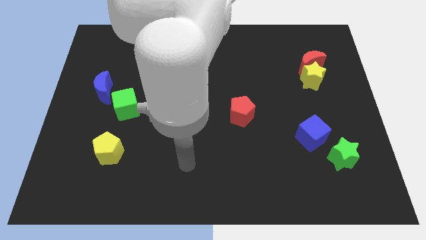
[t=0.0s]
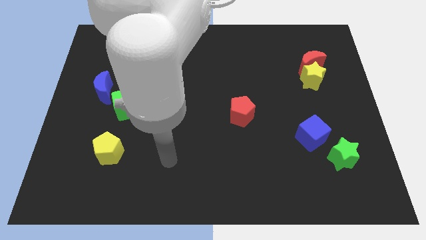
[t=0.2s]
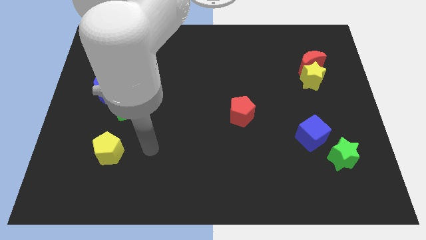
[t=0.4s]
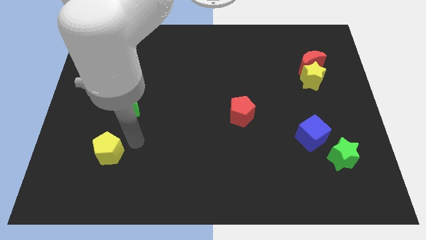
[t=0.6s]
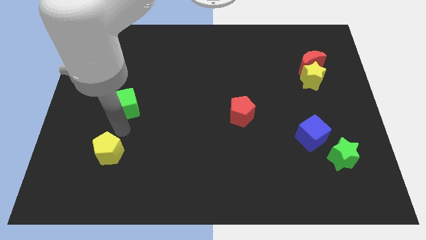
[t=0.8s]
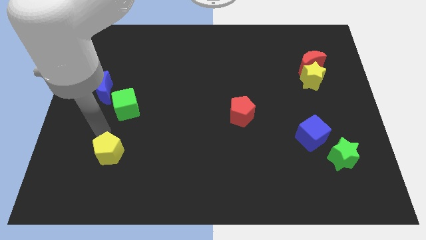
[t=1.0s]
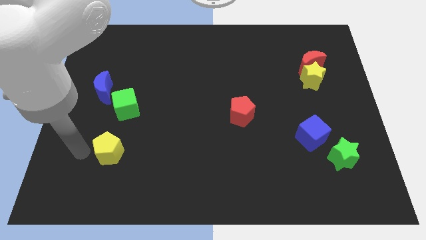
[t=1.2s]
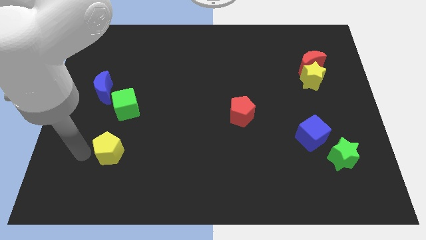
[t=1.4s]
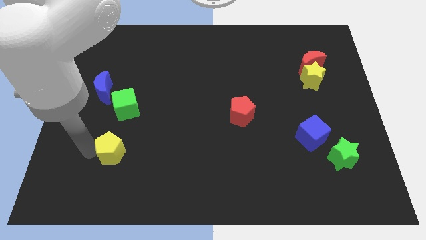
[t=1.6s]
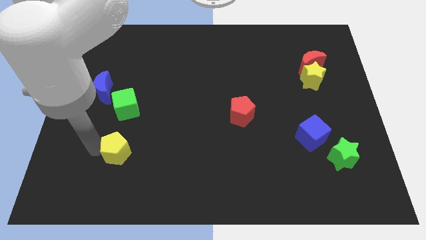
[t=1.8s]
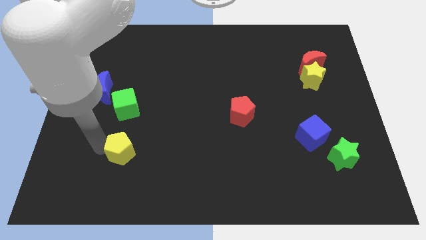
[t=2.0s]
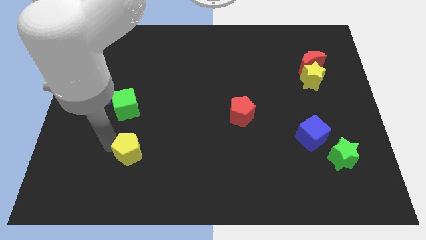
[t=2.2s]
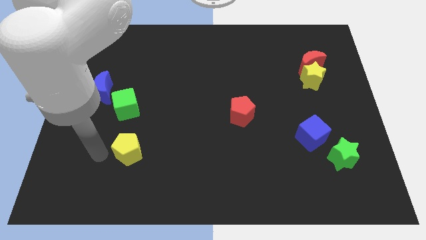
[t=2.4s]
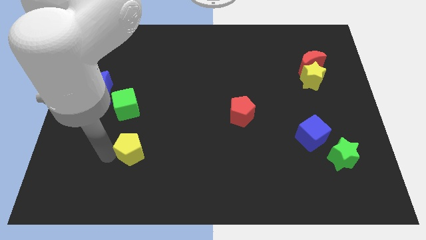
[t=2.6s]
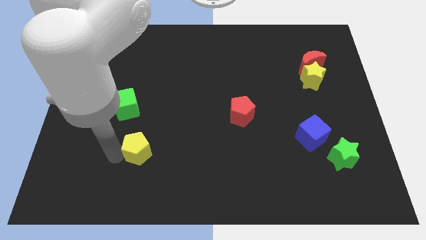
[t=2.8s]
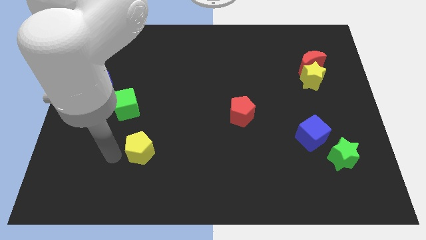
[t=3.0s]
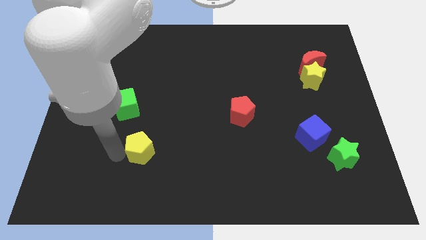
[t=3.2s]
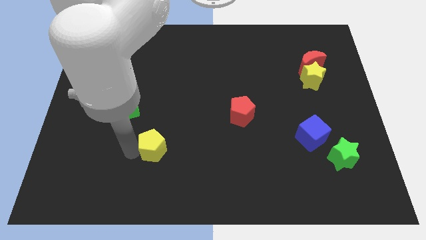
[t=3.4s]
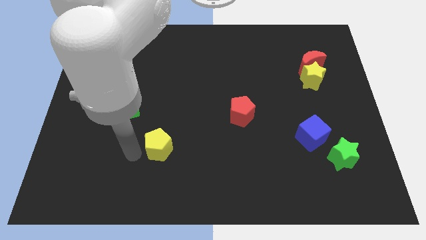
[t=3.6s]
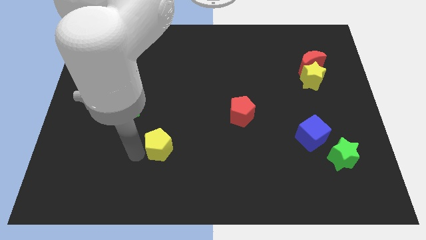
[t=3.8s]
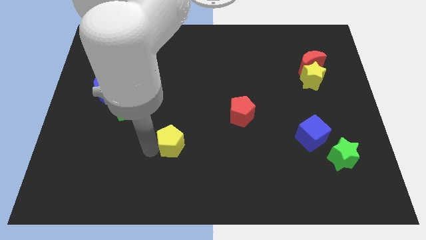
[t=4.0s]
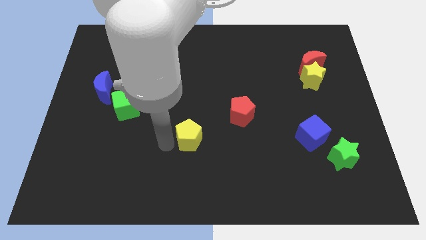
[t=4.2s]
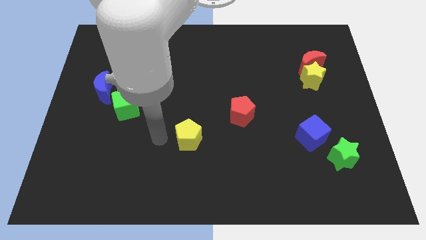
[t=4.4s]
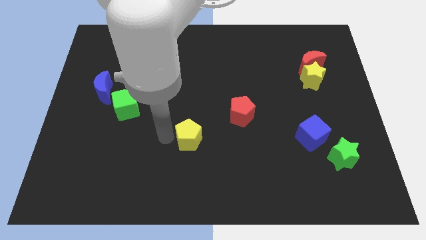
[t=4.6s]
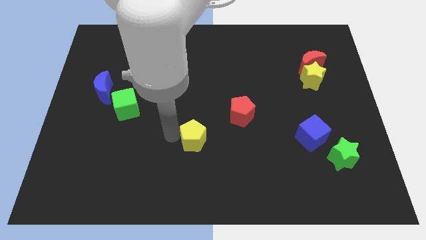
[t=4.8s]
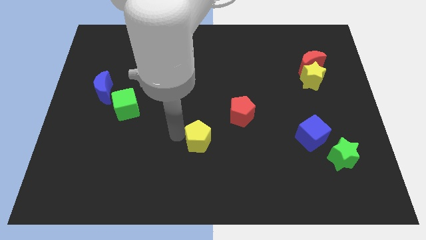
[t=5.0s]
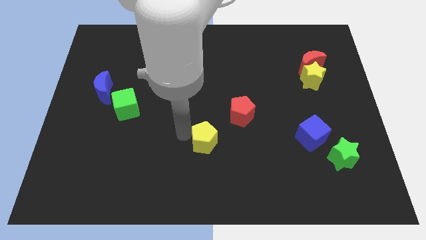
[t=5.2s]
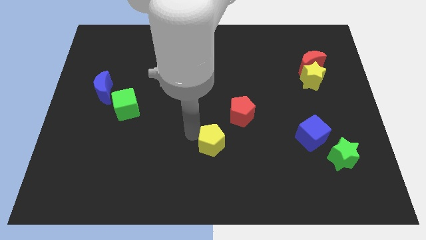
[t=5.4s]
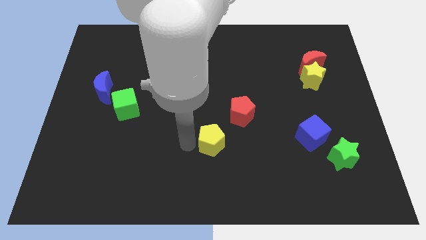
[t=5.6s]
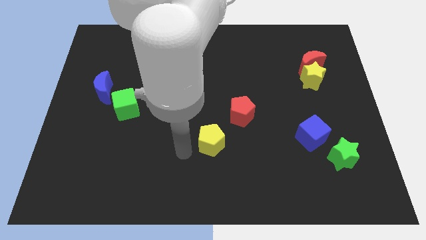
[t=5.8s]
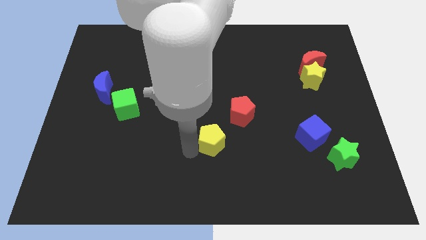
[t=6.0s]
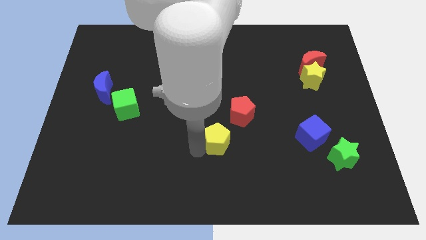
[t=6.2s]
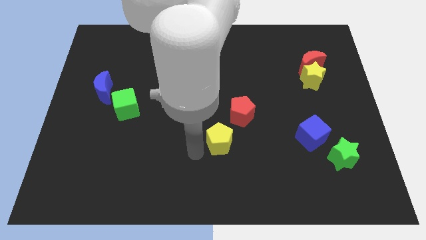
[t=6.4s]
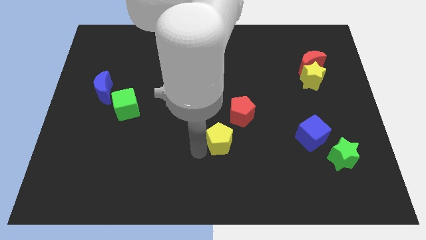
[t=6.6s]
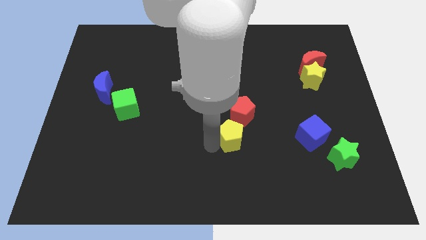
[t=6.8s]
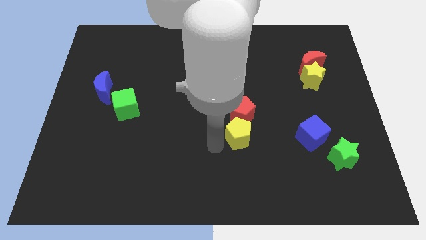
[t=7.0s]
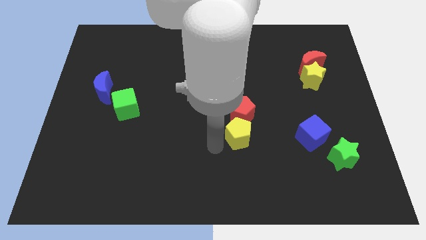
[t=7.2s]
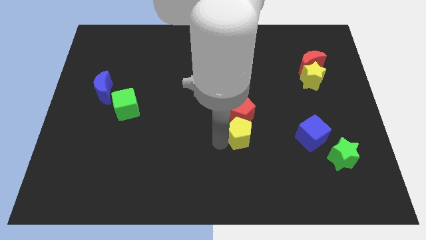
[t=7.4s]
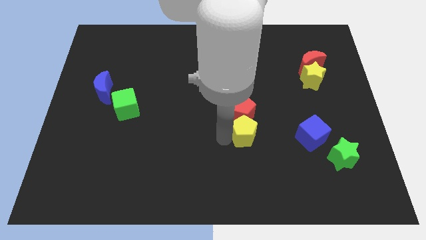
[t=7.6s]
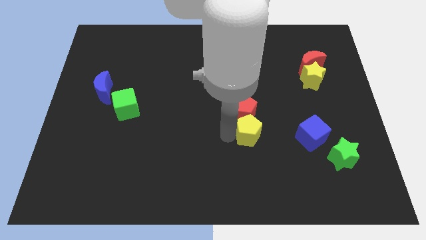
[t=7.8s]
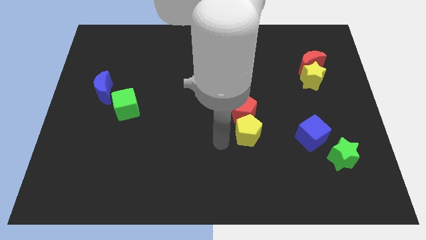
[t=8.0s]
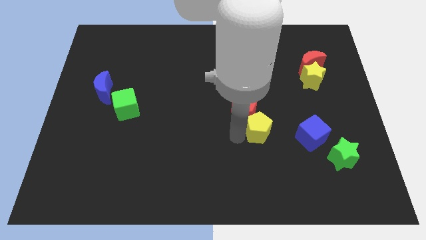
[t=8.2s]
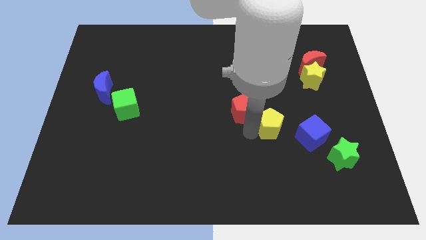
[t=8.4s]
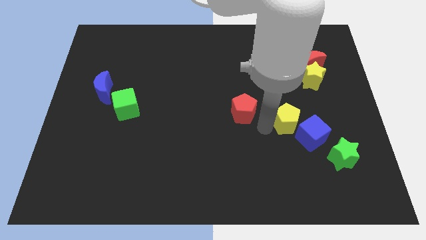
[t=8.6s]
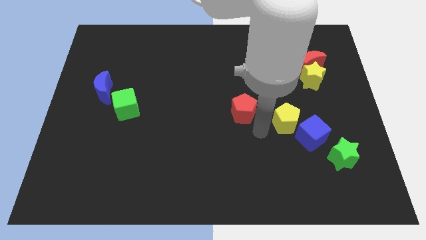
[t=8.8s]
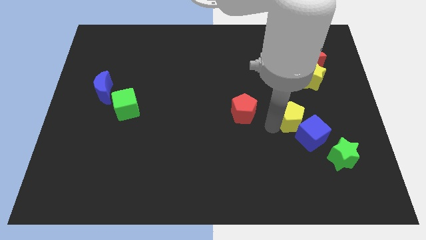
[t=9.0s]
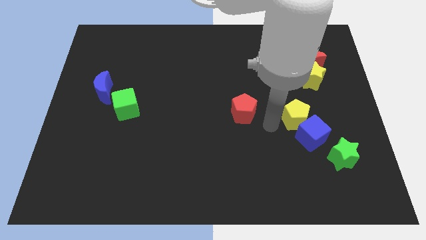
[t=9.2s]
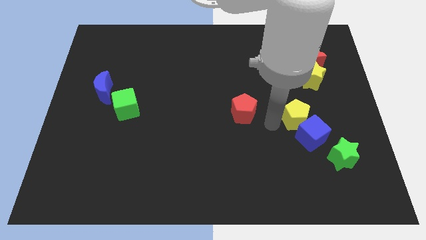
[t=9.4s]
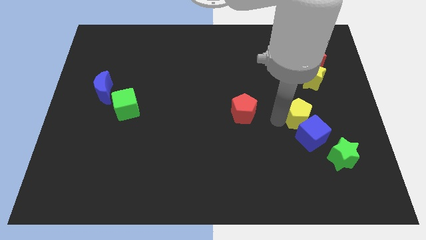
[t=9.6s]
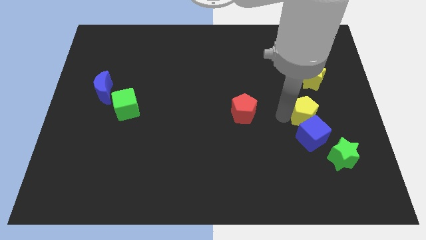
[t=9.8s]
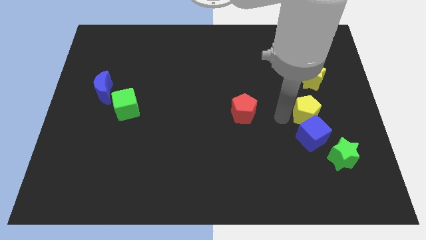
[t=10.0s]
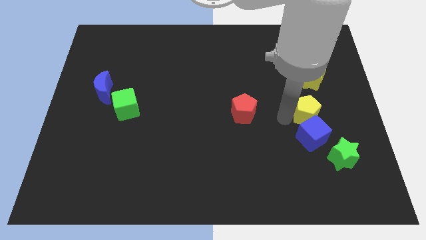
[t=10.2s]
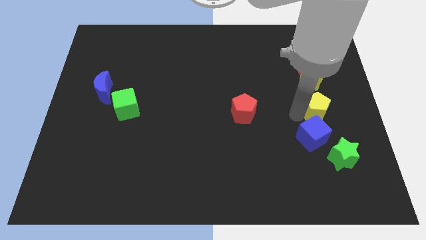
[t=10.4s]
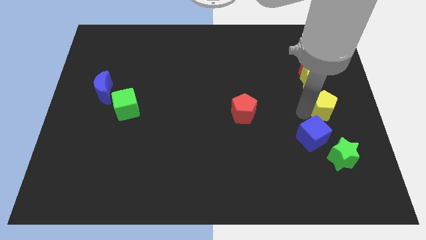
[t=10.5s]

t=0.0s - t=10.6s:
slide the yellow pentagon to the center right

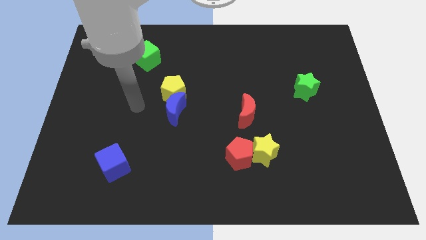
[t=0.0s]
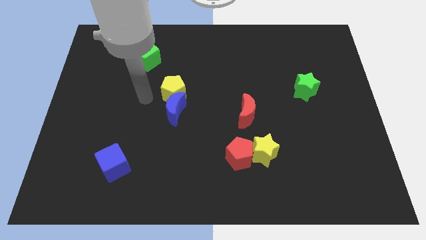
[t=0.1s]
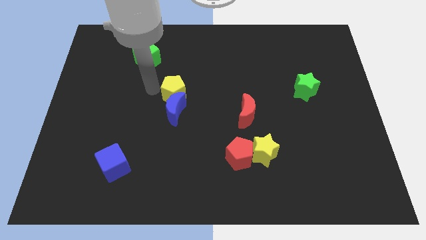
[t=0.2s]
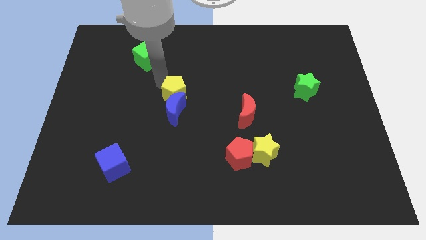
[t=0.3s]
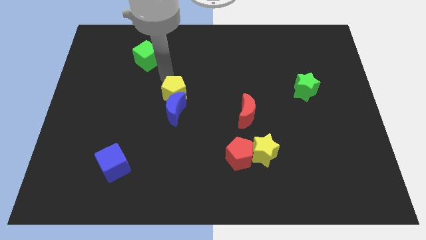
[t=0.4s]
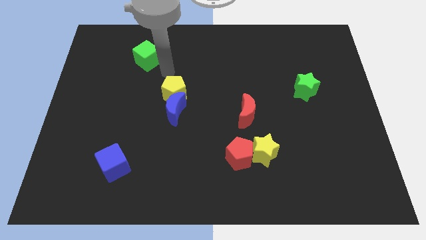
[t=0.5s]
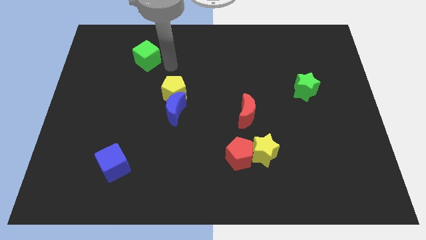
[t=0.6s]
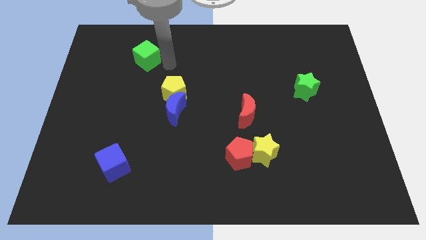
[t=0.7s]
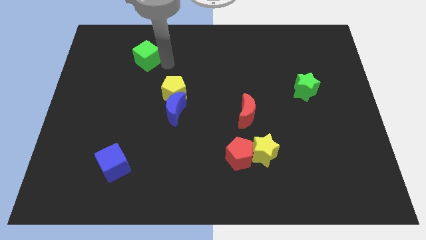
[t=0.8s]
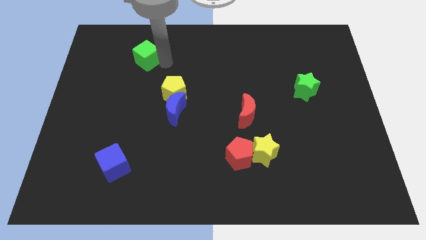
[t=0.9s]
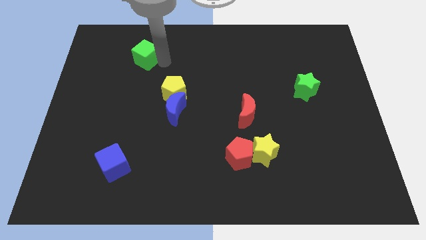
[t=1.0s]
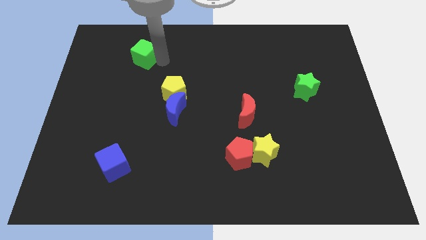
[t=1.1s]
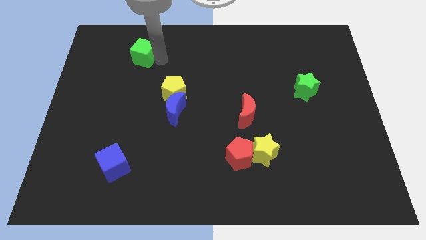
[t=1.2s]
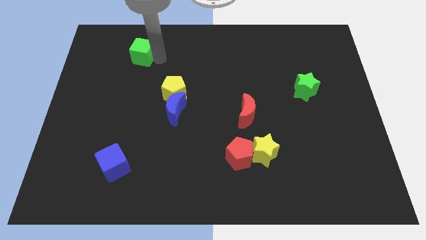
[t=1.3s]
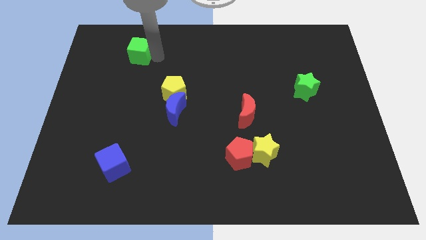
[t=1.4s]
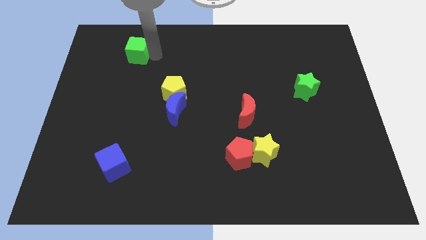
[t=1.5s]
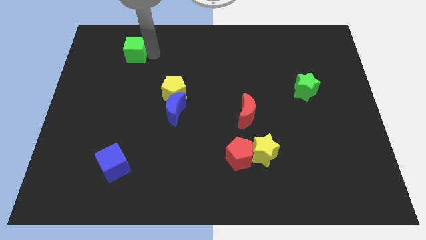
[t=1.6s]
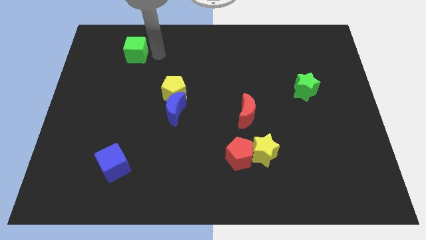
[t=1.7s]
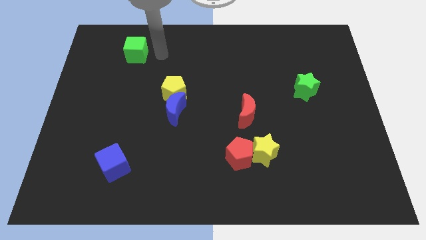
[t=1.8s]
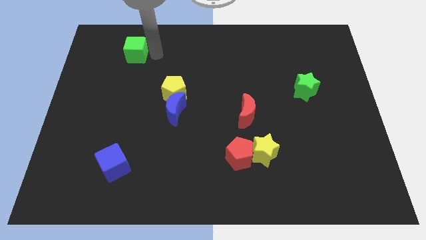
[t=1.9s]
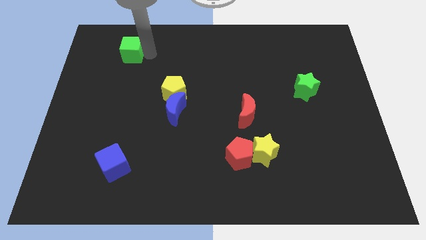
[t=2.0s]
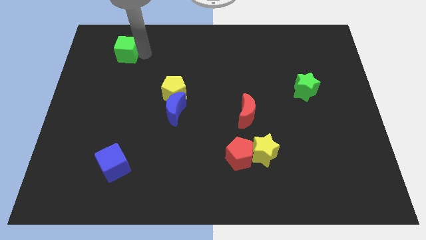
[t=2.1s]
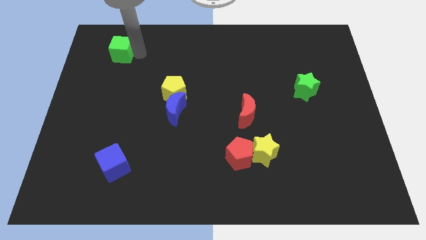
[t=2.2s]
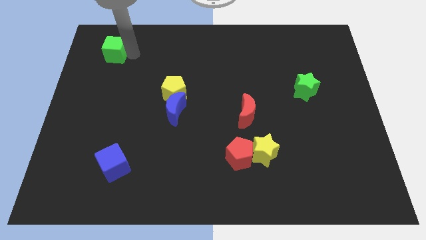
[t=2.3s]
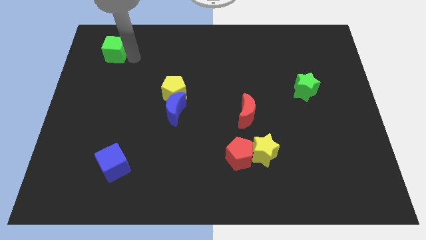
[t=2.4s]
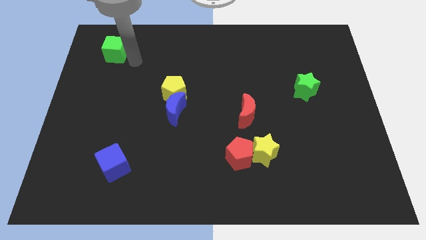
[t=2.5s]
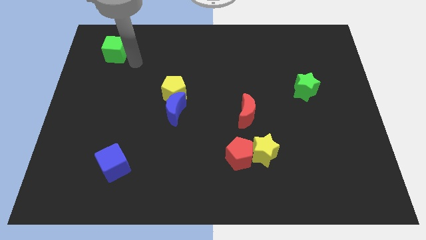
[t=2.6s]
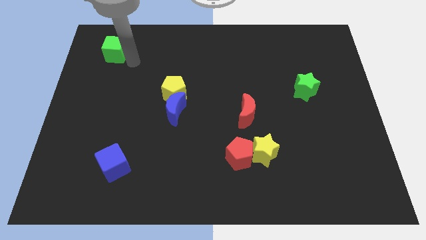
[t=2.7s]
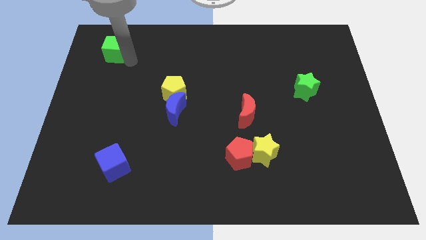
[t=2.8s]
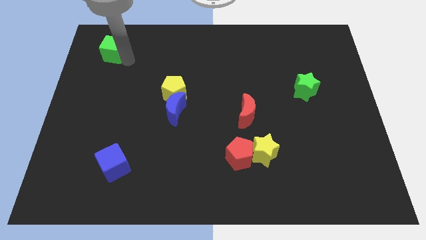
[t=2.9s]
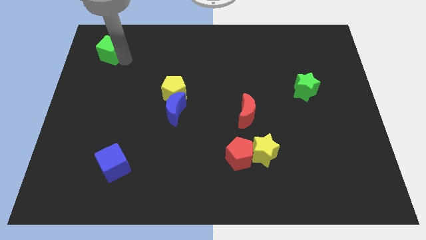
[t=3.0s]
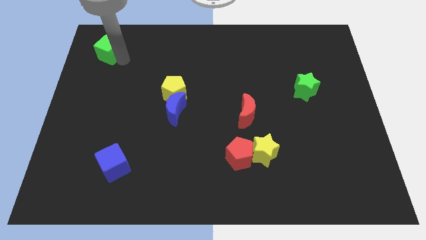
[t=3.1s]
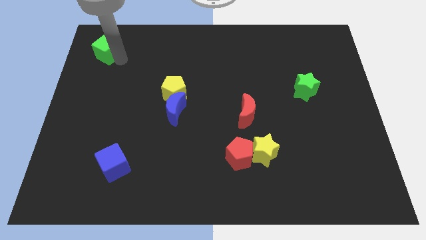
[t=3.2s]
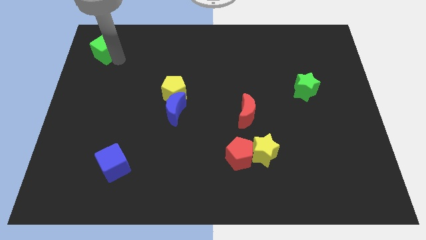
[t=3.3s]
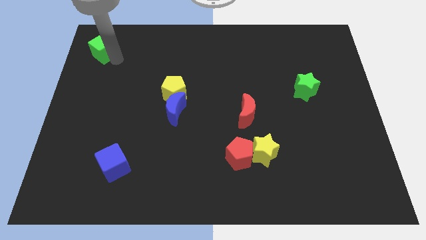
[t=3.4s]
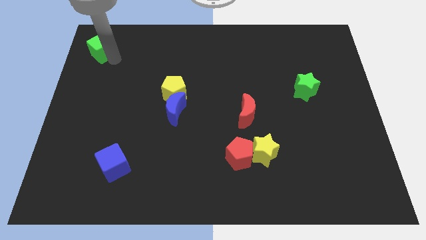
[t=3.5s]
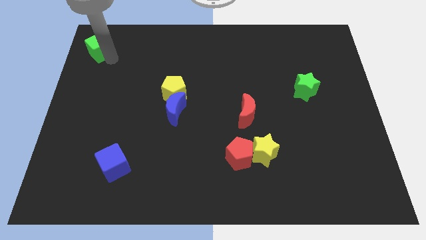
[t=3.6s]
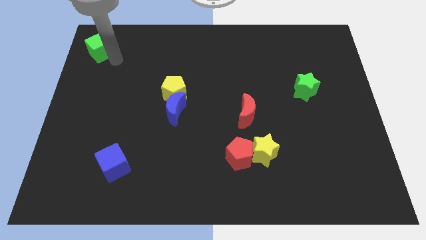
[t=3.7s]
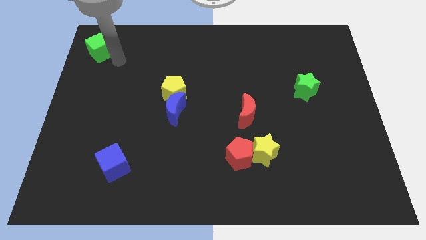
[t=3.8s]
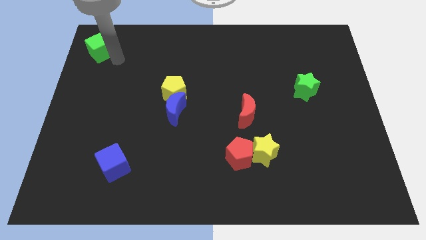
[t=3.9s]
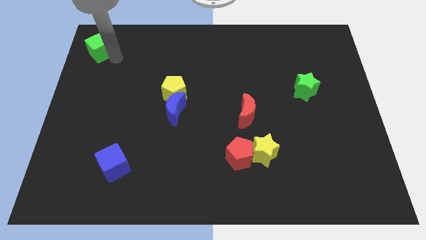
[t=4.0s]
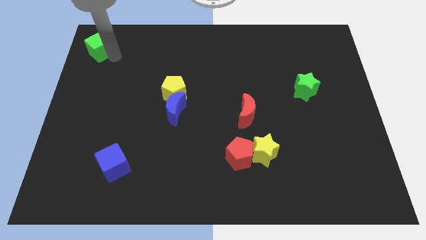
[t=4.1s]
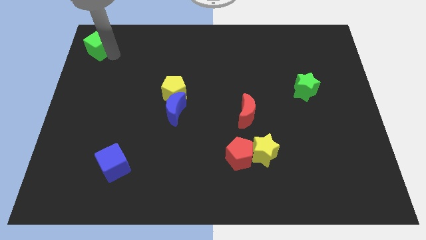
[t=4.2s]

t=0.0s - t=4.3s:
move the green cube to the top left
